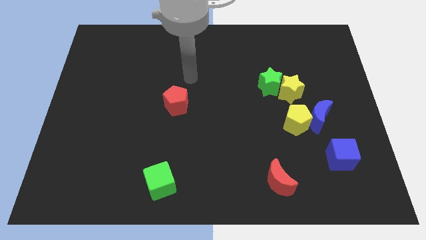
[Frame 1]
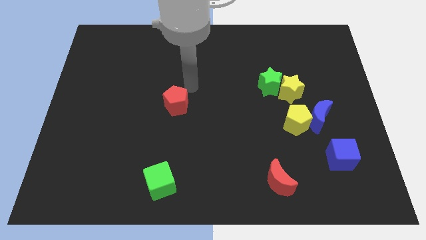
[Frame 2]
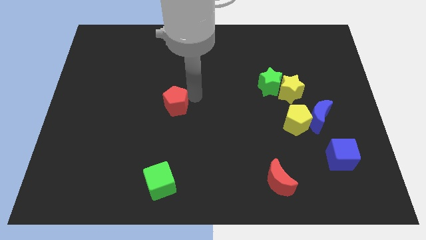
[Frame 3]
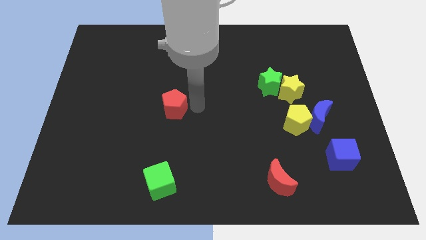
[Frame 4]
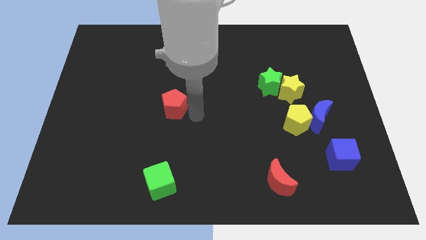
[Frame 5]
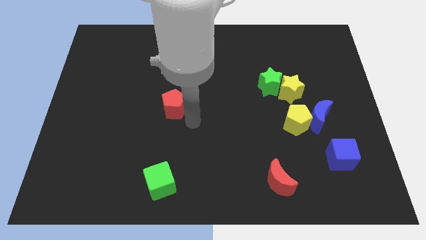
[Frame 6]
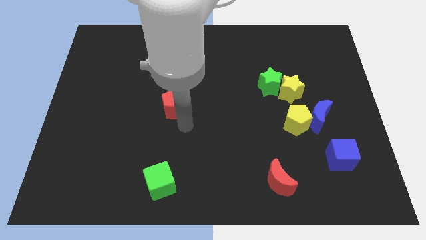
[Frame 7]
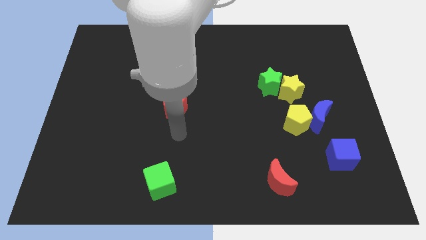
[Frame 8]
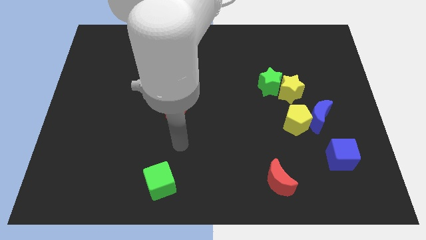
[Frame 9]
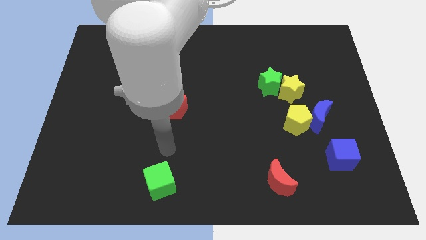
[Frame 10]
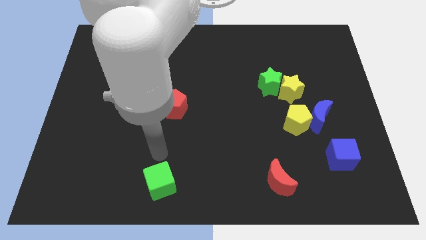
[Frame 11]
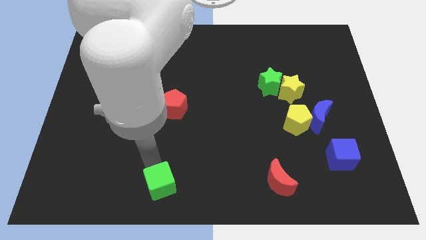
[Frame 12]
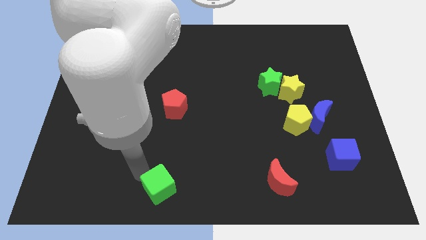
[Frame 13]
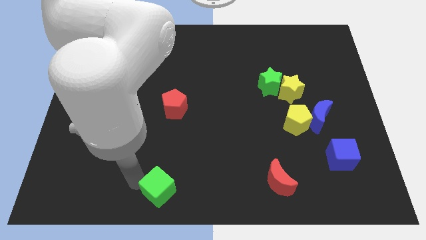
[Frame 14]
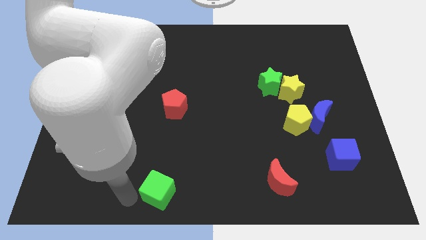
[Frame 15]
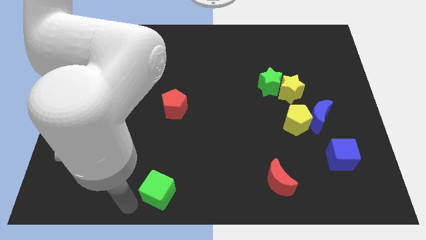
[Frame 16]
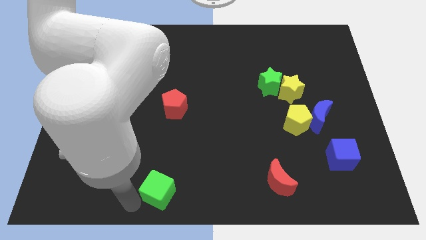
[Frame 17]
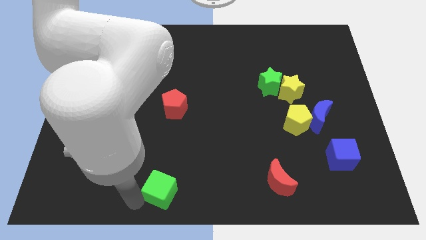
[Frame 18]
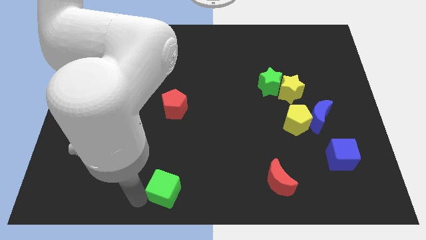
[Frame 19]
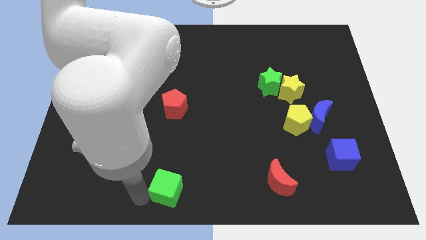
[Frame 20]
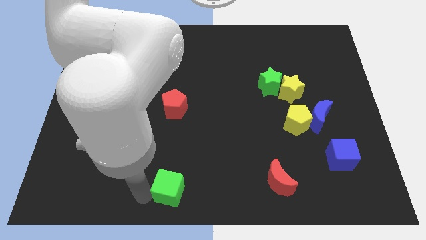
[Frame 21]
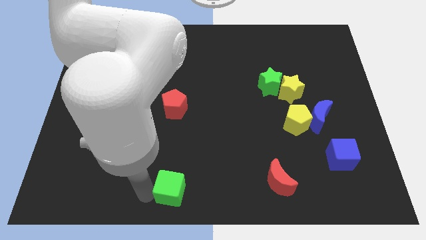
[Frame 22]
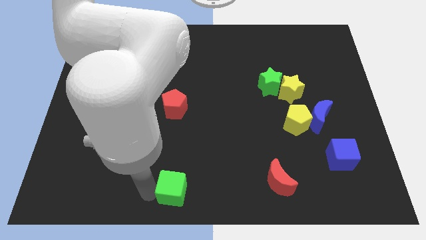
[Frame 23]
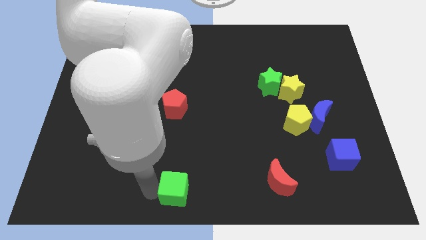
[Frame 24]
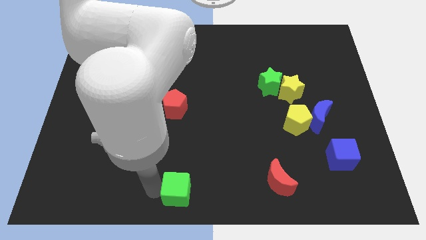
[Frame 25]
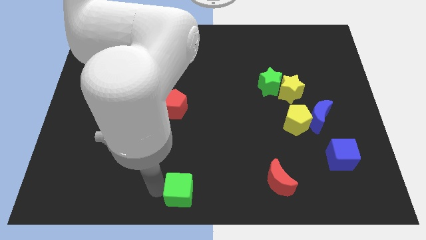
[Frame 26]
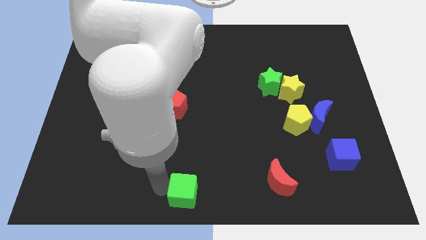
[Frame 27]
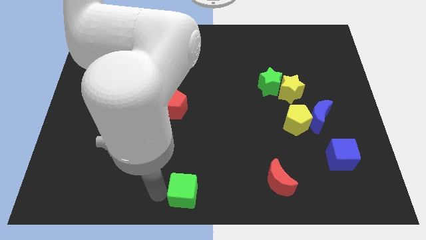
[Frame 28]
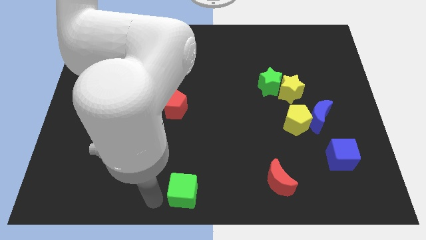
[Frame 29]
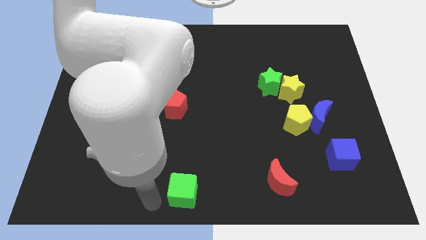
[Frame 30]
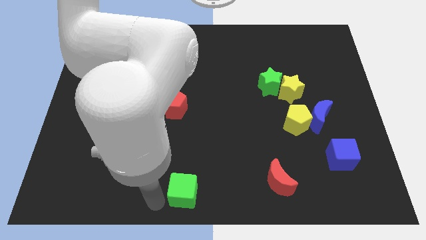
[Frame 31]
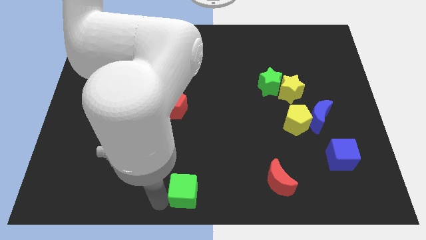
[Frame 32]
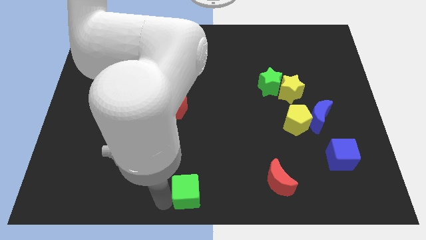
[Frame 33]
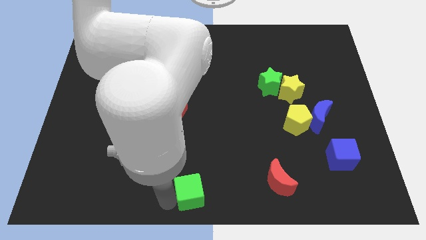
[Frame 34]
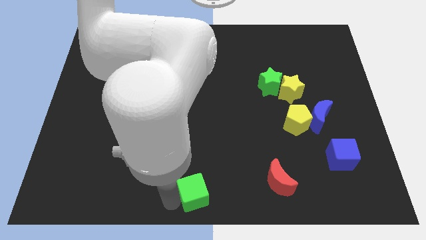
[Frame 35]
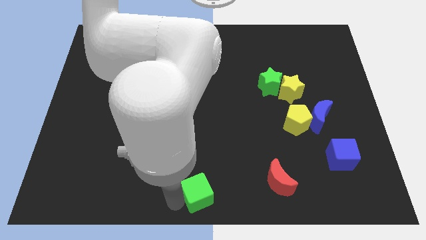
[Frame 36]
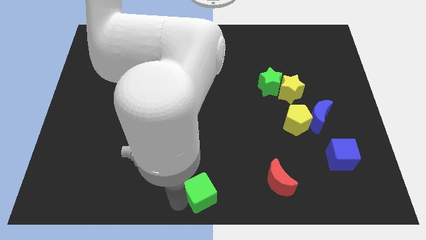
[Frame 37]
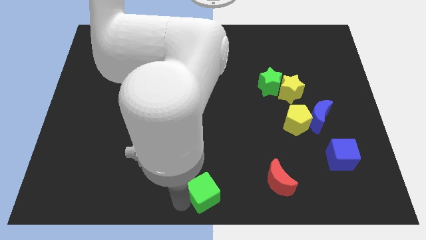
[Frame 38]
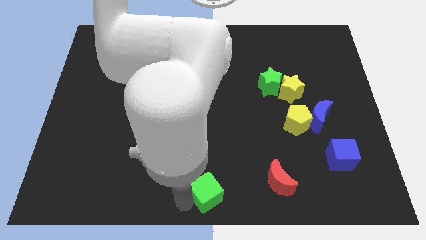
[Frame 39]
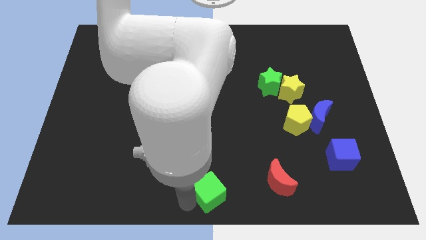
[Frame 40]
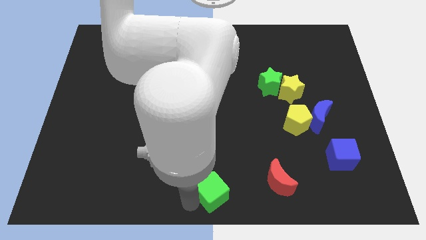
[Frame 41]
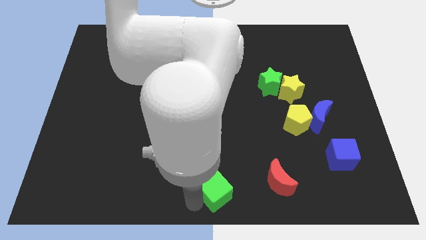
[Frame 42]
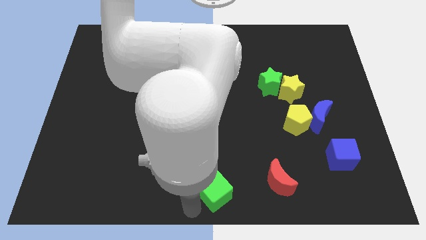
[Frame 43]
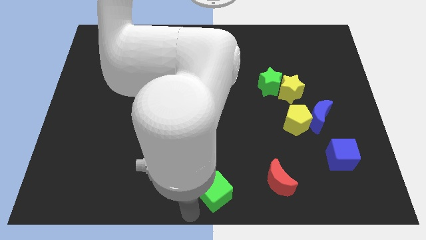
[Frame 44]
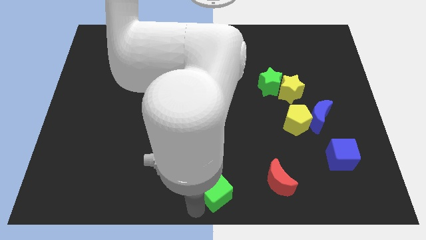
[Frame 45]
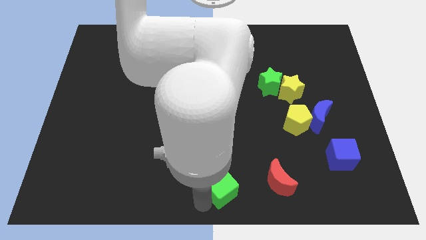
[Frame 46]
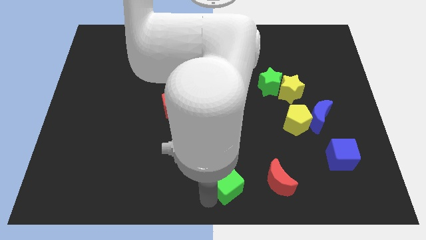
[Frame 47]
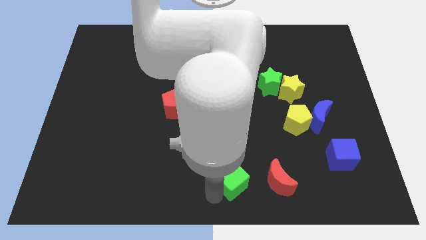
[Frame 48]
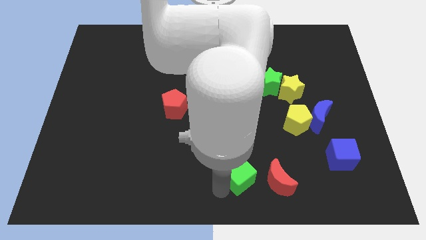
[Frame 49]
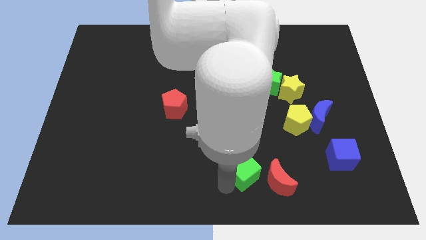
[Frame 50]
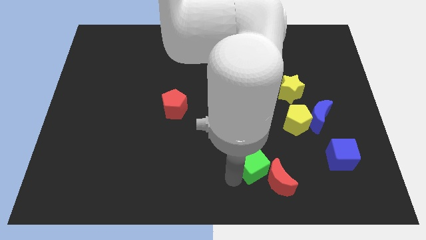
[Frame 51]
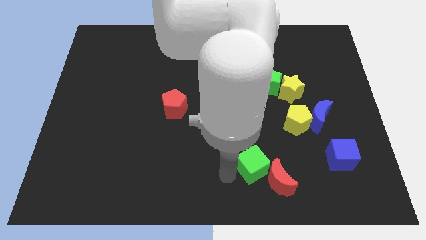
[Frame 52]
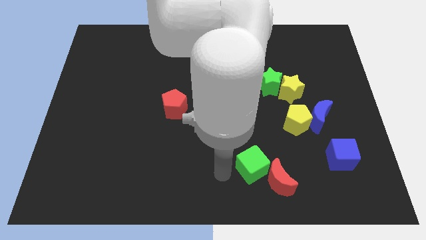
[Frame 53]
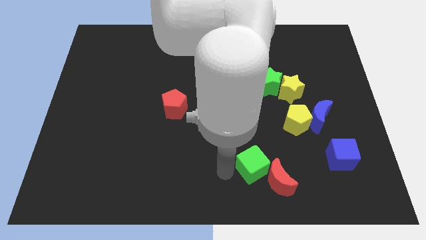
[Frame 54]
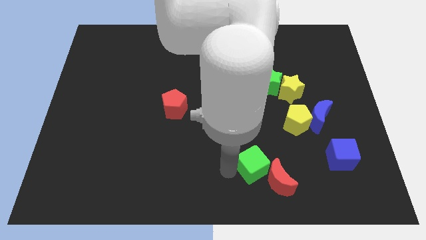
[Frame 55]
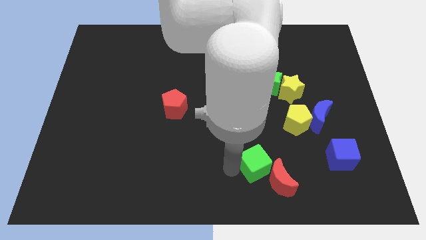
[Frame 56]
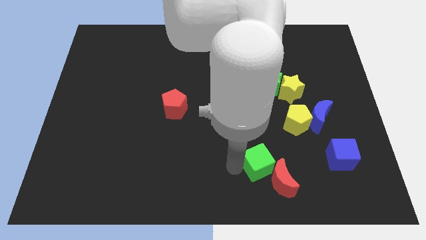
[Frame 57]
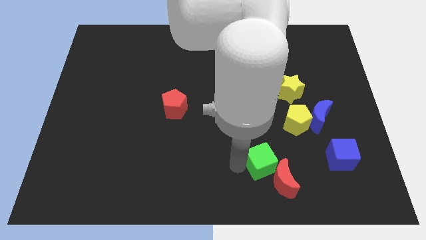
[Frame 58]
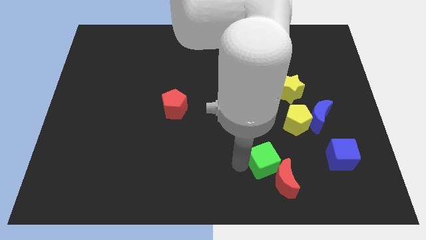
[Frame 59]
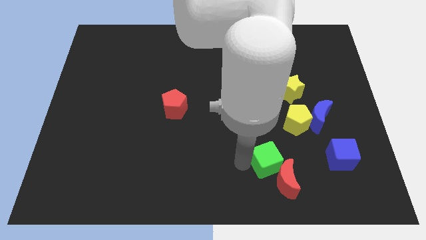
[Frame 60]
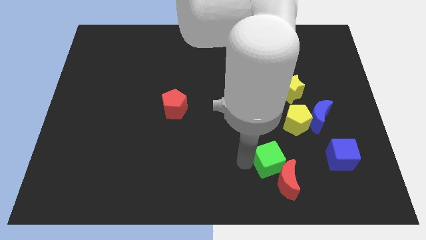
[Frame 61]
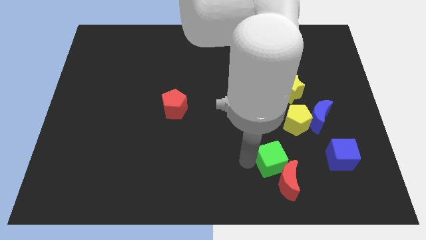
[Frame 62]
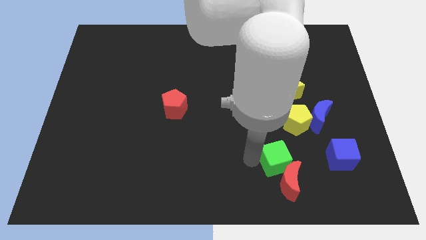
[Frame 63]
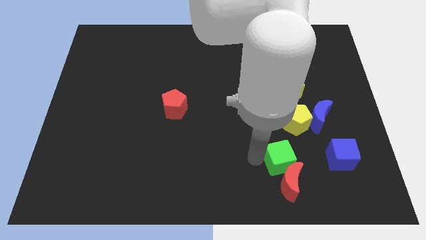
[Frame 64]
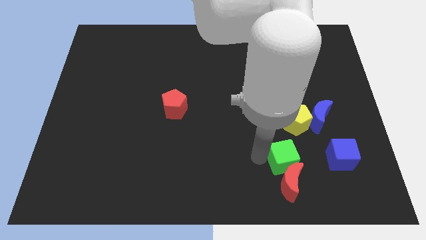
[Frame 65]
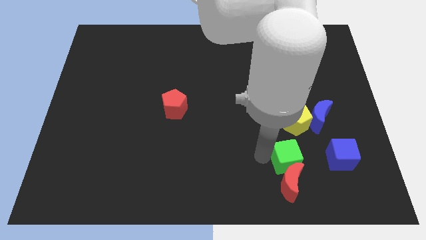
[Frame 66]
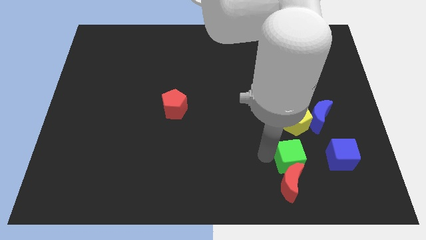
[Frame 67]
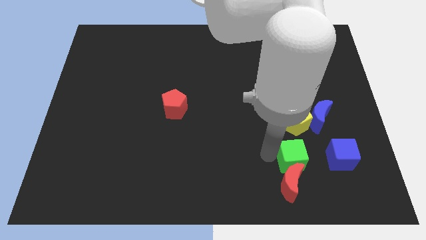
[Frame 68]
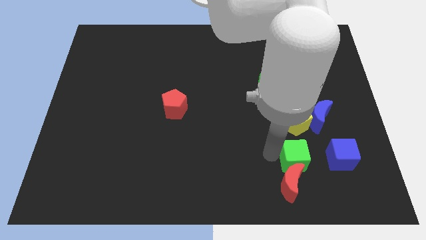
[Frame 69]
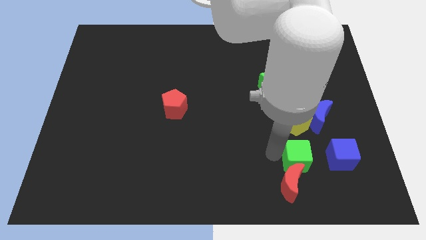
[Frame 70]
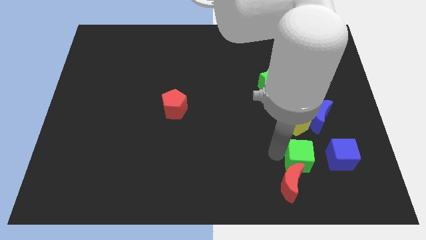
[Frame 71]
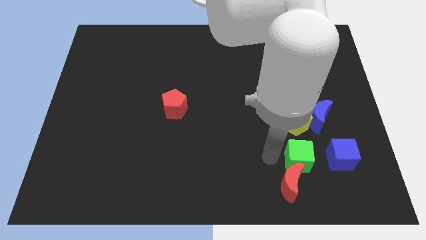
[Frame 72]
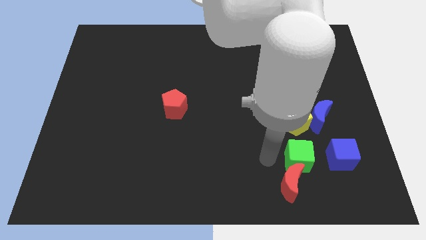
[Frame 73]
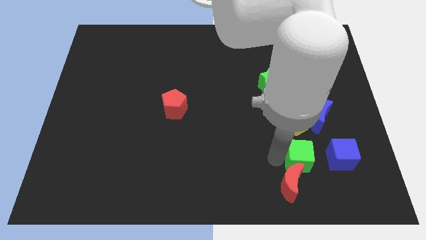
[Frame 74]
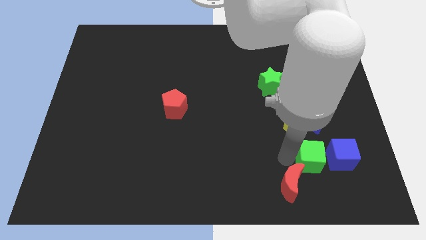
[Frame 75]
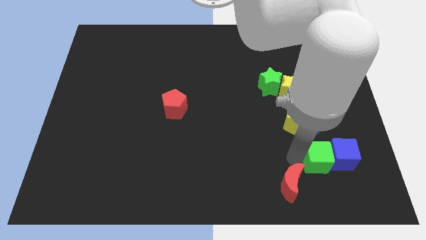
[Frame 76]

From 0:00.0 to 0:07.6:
move the green cube close to the blue cube
